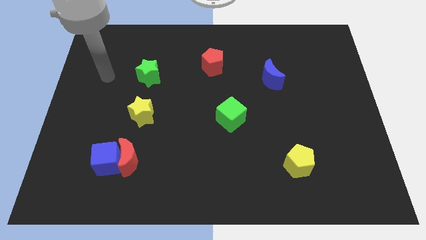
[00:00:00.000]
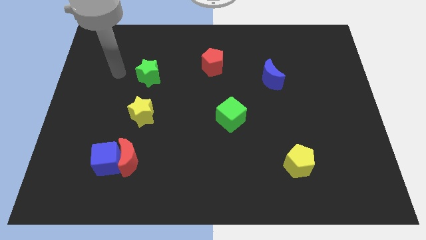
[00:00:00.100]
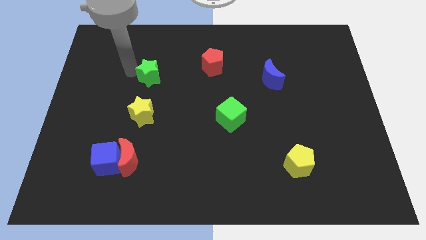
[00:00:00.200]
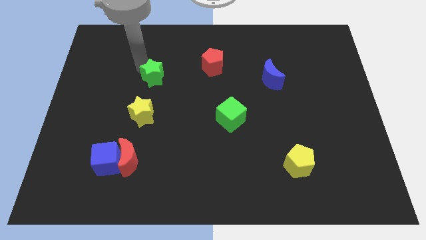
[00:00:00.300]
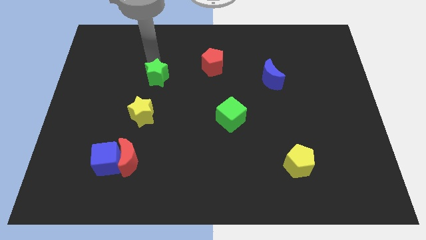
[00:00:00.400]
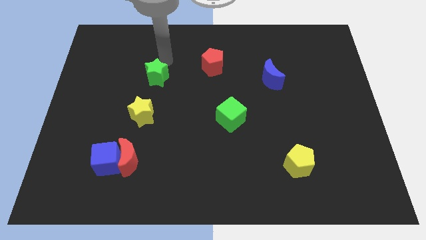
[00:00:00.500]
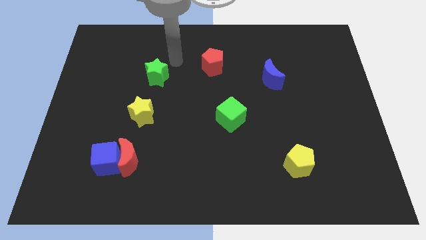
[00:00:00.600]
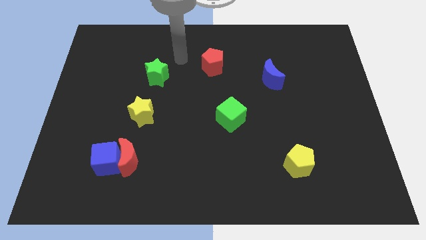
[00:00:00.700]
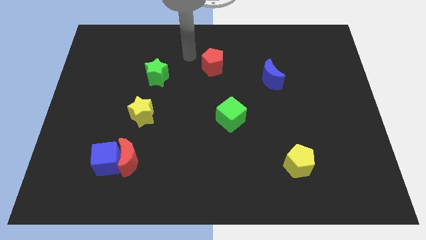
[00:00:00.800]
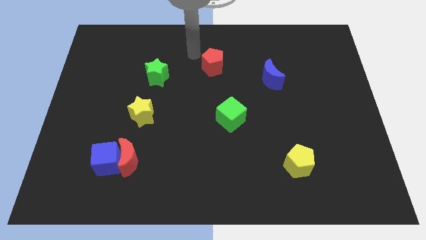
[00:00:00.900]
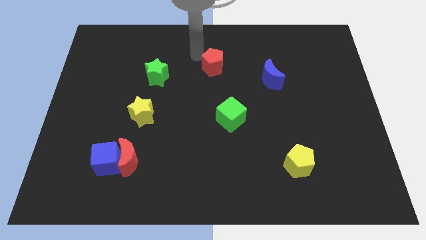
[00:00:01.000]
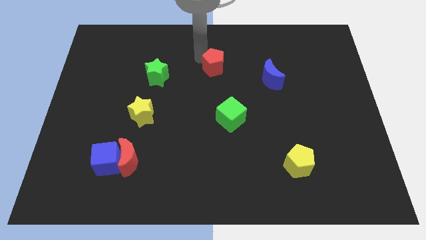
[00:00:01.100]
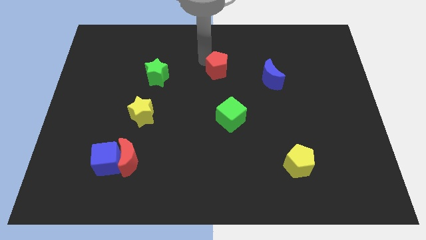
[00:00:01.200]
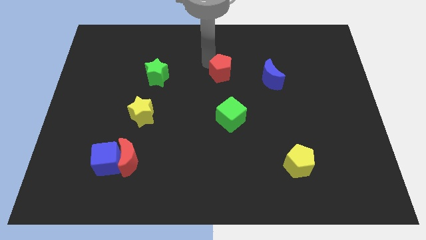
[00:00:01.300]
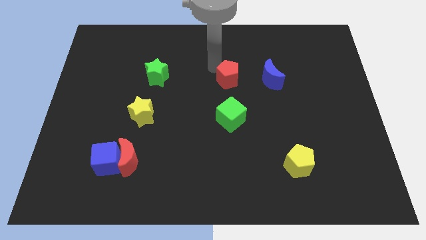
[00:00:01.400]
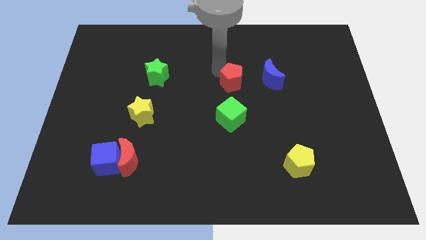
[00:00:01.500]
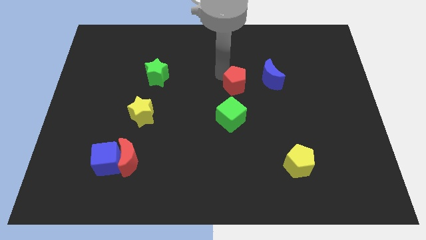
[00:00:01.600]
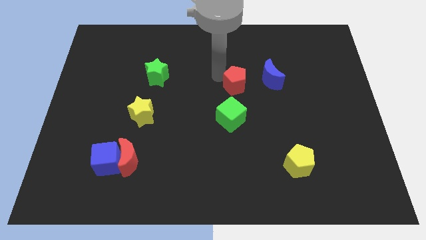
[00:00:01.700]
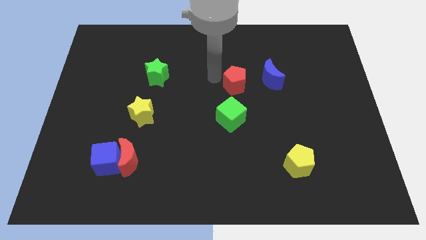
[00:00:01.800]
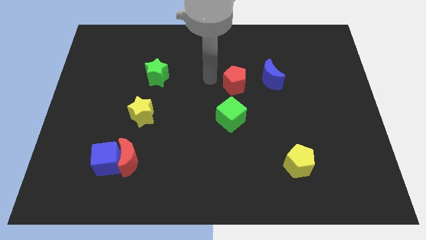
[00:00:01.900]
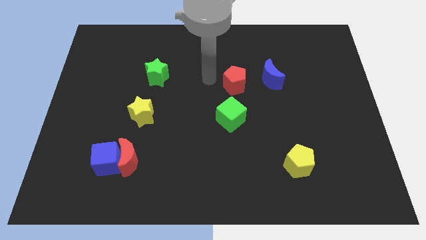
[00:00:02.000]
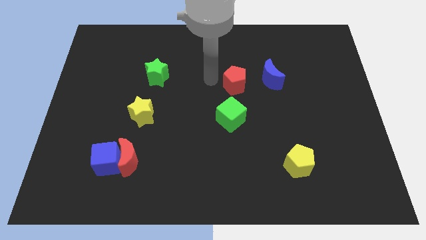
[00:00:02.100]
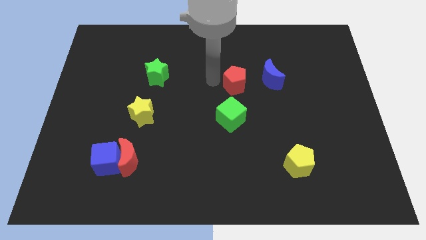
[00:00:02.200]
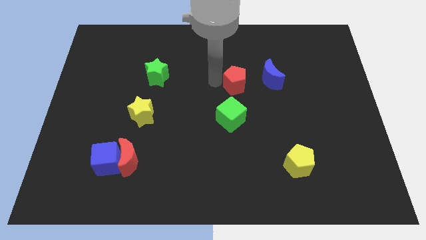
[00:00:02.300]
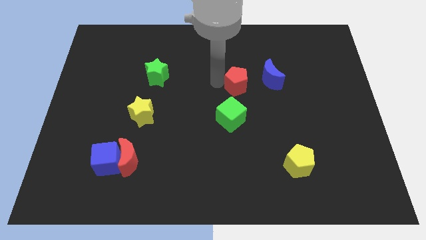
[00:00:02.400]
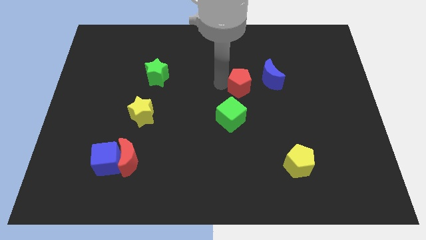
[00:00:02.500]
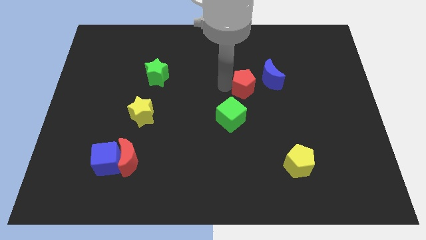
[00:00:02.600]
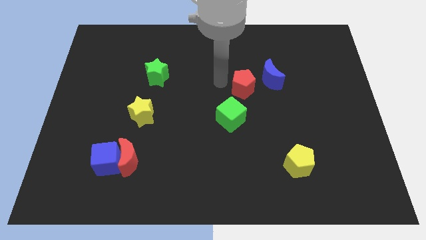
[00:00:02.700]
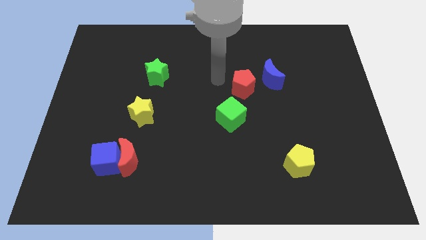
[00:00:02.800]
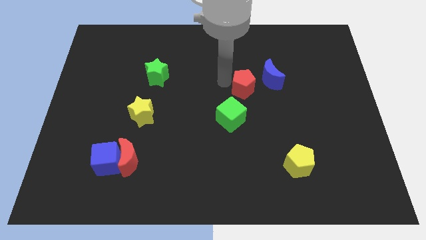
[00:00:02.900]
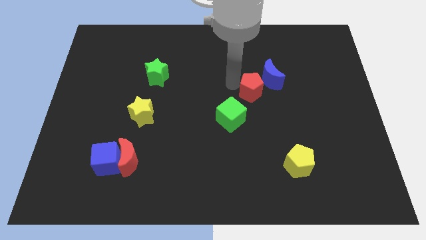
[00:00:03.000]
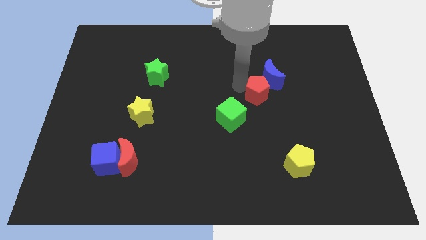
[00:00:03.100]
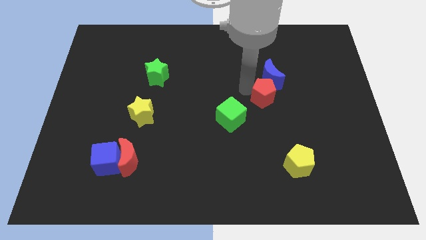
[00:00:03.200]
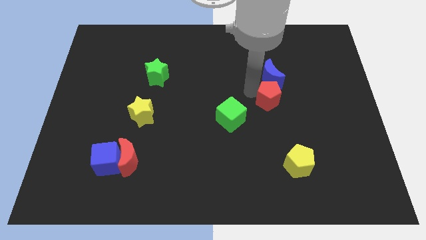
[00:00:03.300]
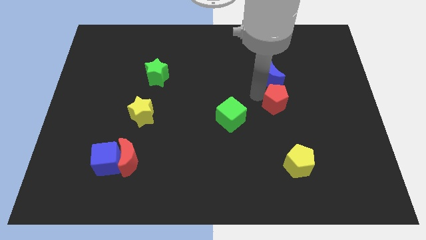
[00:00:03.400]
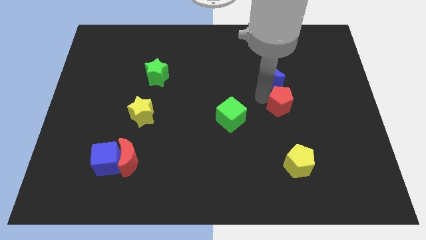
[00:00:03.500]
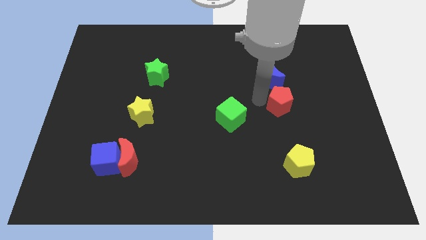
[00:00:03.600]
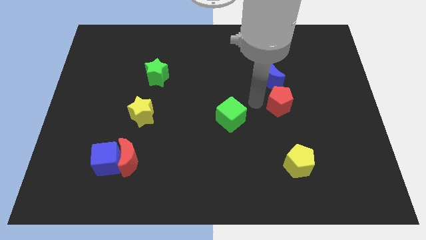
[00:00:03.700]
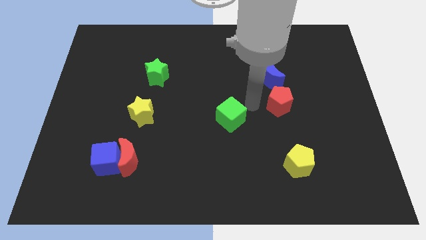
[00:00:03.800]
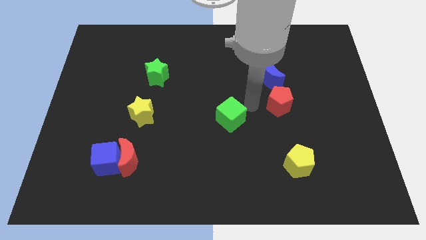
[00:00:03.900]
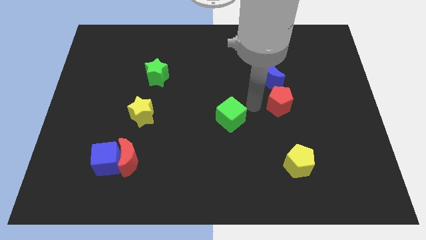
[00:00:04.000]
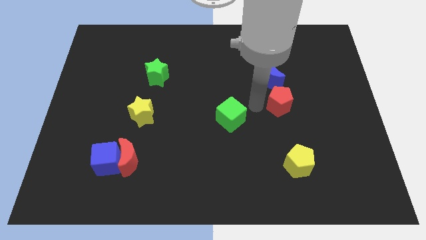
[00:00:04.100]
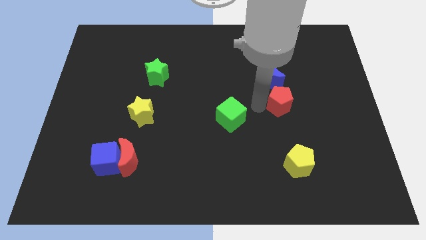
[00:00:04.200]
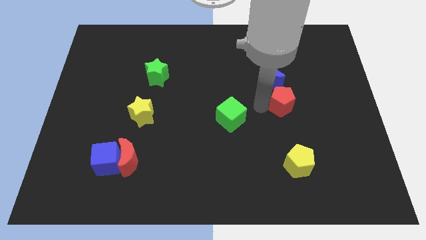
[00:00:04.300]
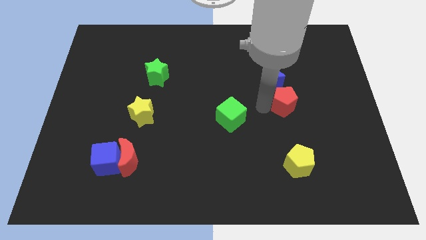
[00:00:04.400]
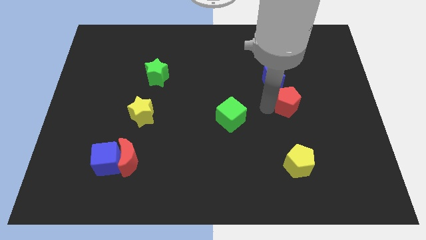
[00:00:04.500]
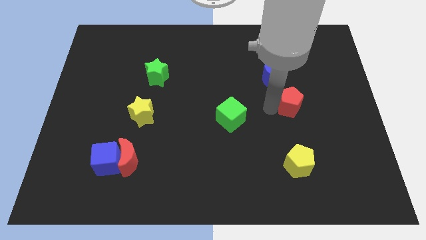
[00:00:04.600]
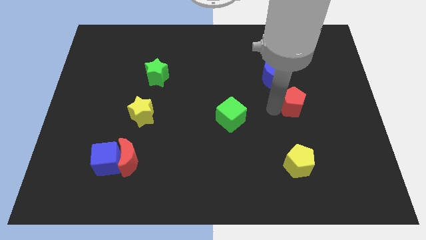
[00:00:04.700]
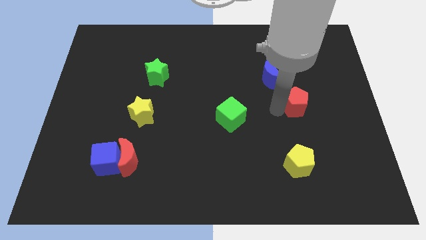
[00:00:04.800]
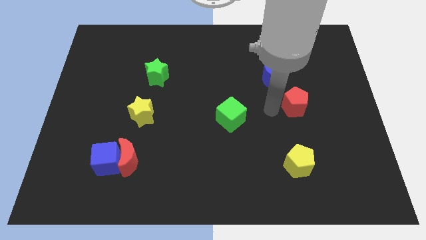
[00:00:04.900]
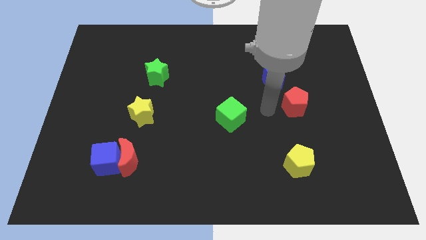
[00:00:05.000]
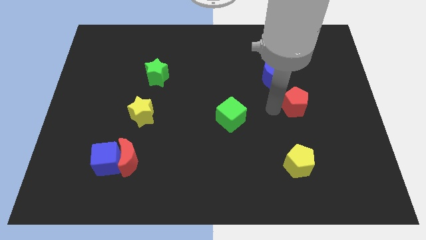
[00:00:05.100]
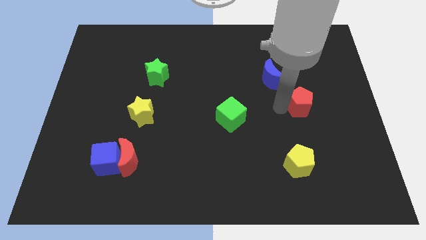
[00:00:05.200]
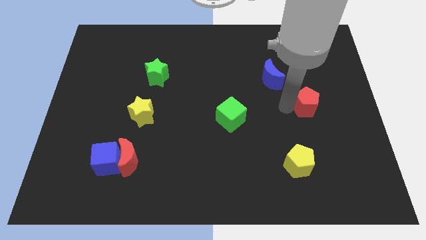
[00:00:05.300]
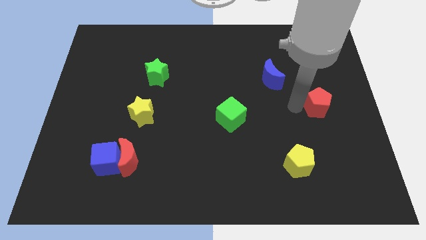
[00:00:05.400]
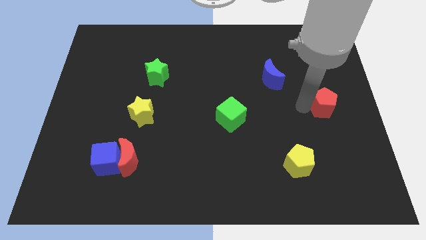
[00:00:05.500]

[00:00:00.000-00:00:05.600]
push the red pentagon to the right side

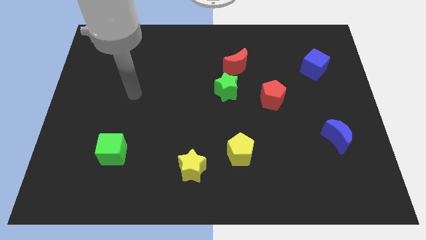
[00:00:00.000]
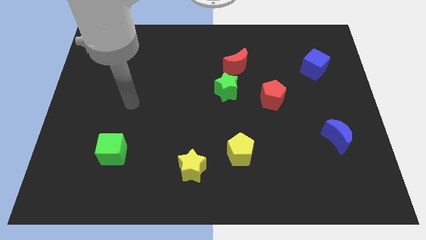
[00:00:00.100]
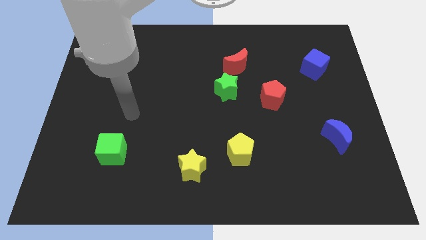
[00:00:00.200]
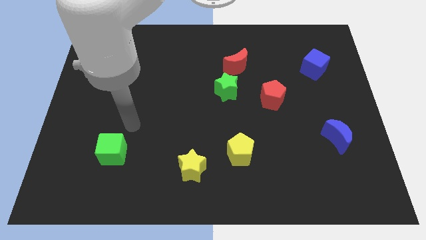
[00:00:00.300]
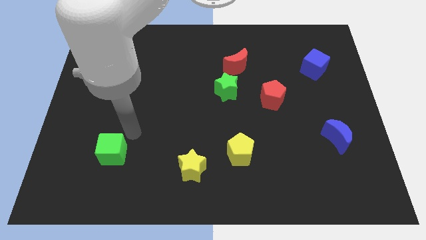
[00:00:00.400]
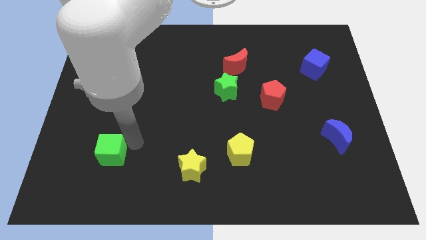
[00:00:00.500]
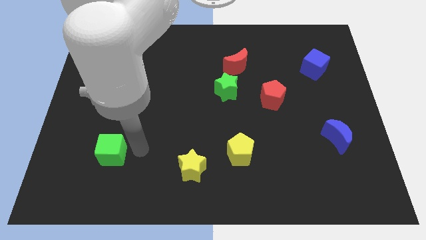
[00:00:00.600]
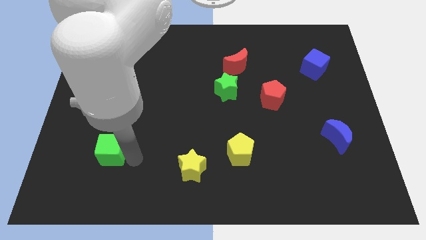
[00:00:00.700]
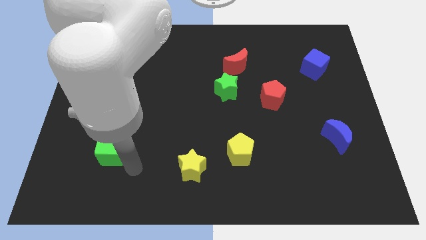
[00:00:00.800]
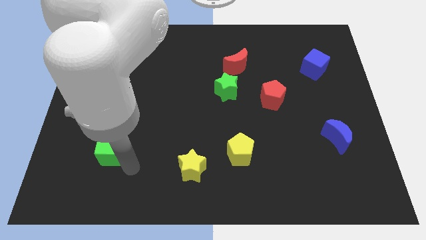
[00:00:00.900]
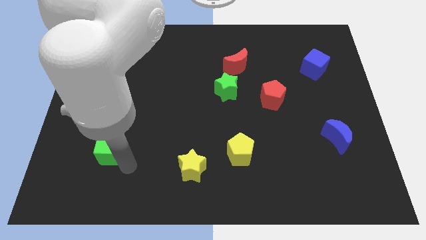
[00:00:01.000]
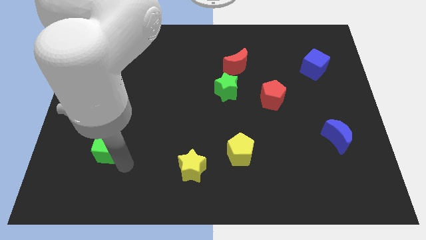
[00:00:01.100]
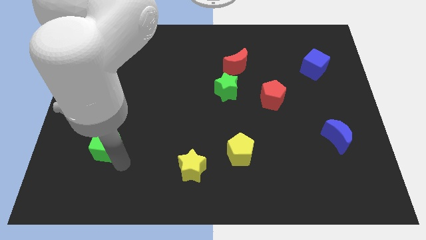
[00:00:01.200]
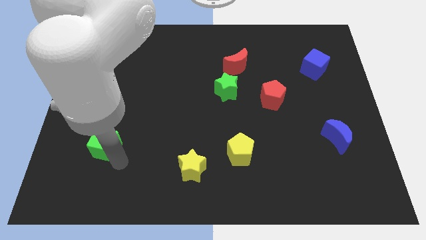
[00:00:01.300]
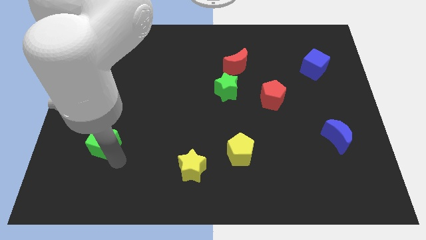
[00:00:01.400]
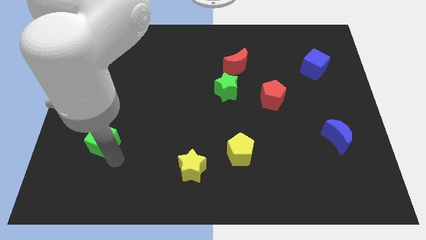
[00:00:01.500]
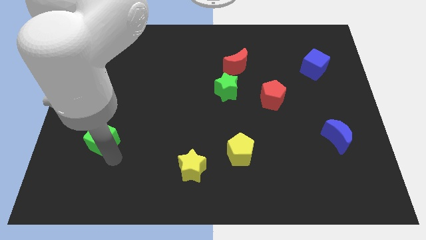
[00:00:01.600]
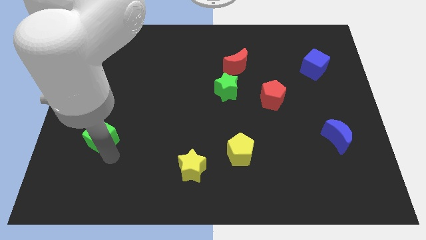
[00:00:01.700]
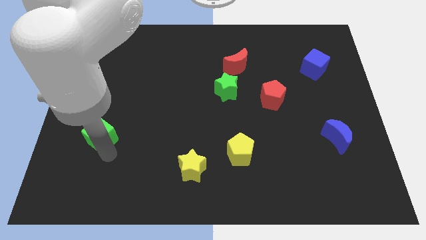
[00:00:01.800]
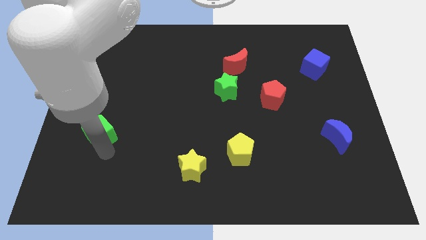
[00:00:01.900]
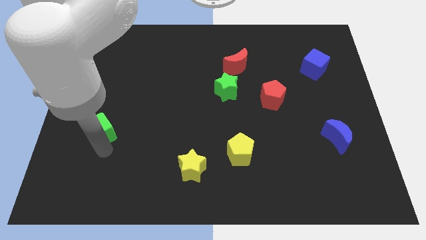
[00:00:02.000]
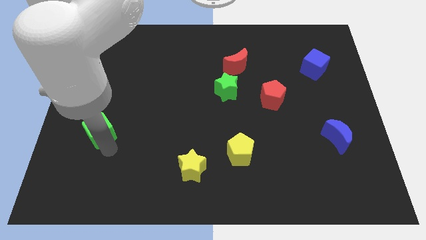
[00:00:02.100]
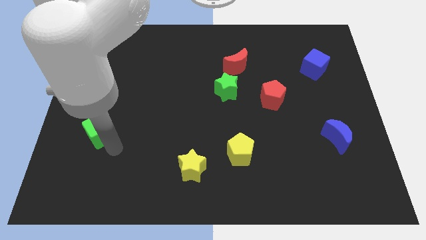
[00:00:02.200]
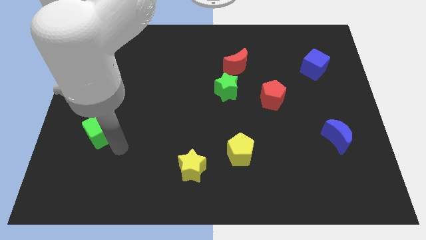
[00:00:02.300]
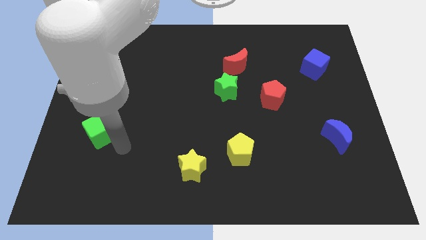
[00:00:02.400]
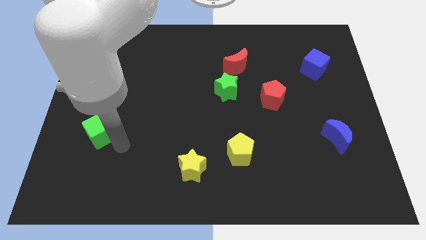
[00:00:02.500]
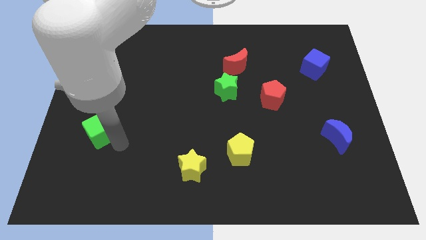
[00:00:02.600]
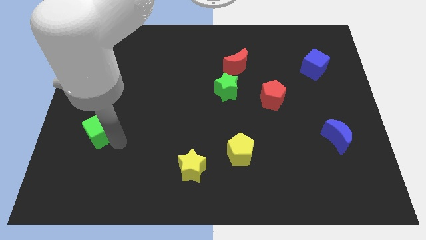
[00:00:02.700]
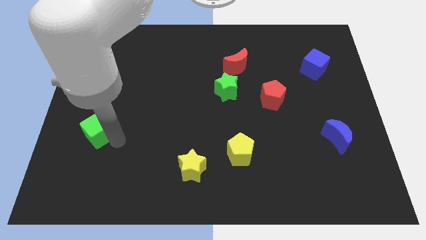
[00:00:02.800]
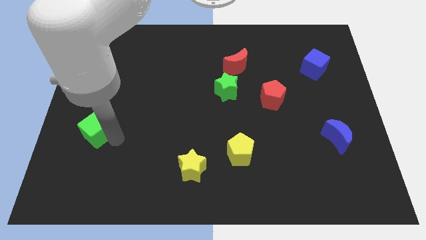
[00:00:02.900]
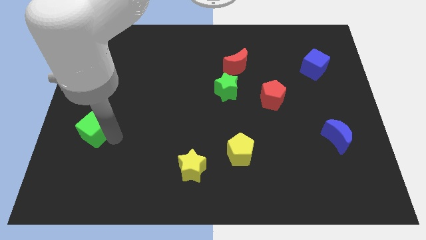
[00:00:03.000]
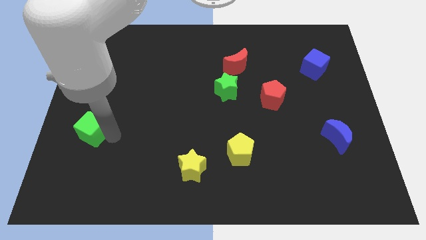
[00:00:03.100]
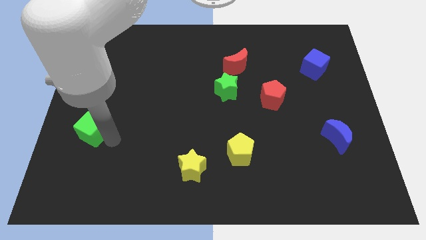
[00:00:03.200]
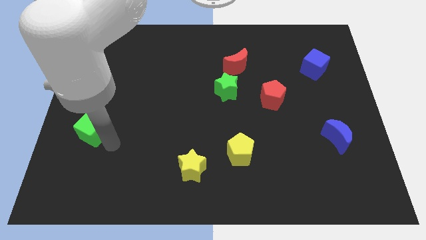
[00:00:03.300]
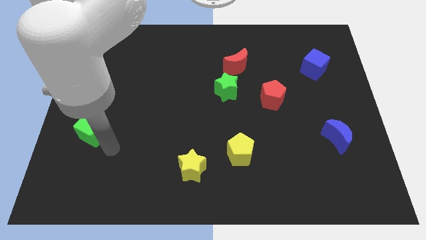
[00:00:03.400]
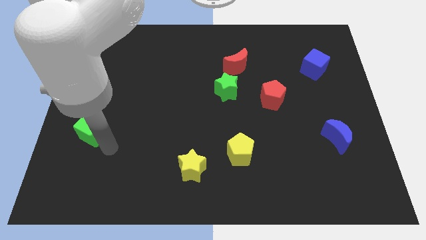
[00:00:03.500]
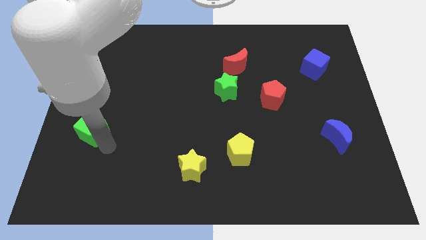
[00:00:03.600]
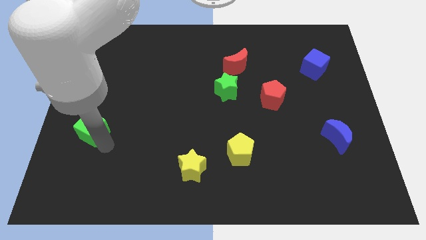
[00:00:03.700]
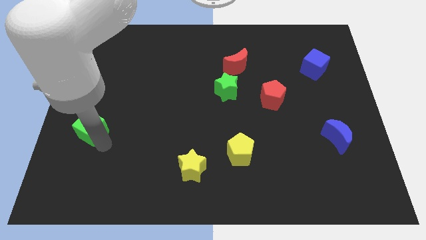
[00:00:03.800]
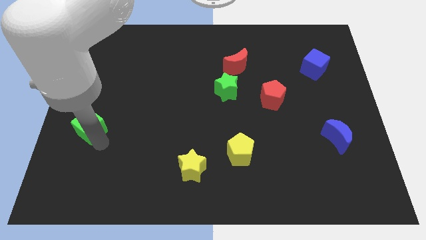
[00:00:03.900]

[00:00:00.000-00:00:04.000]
push the green cube to the left side of the board
